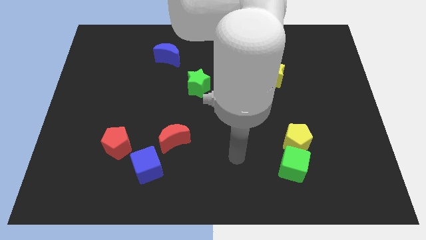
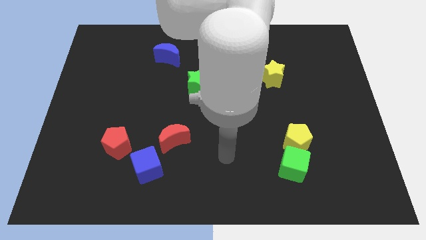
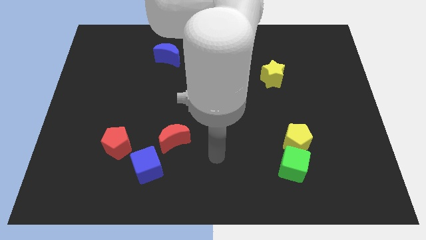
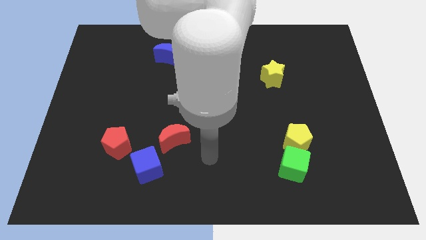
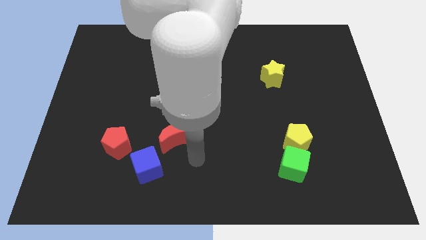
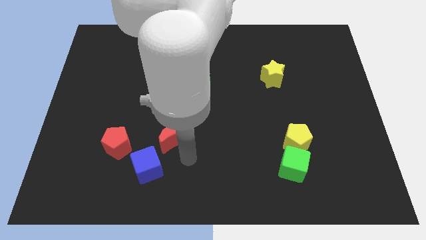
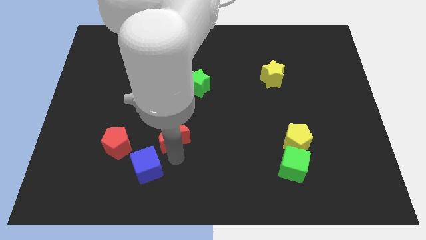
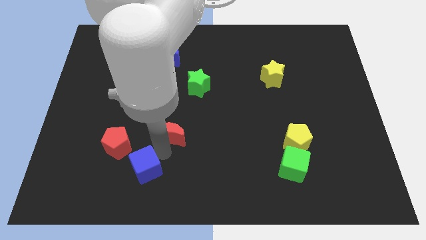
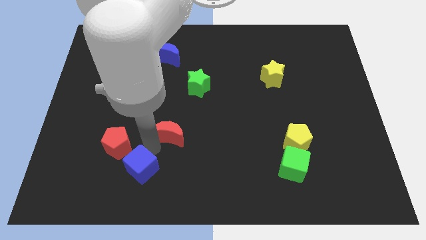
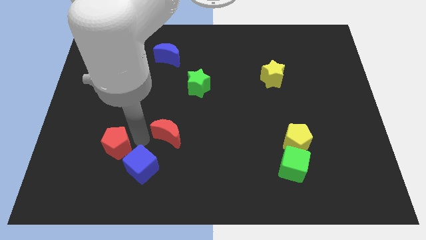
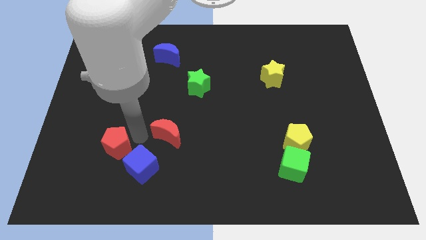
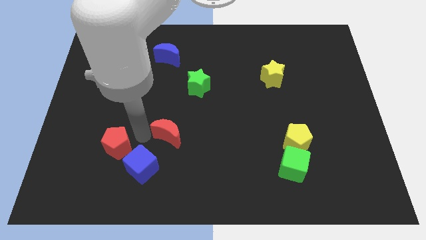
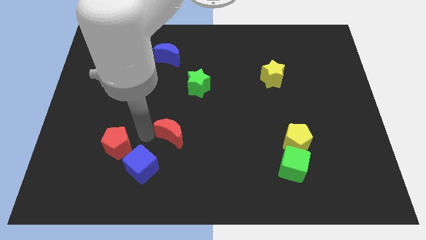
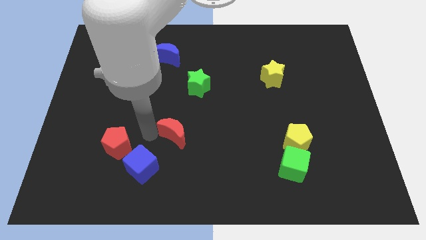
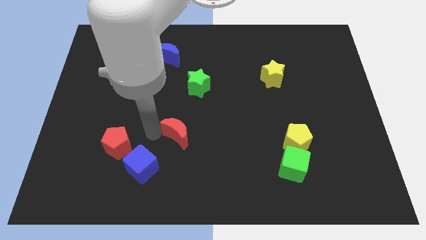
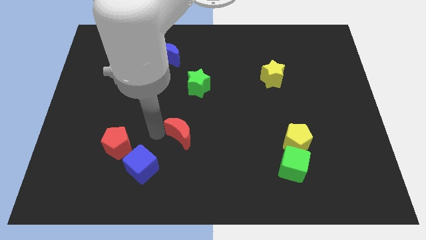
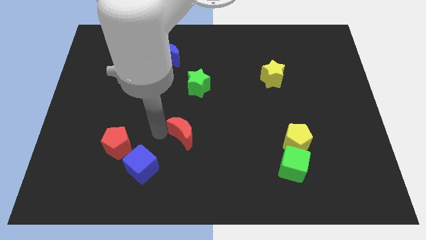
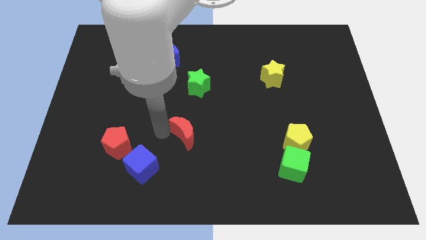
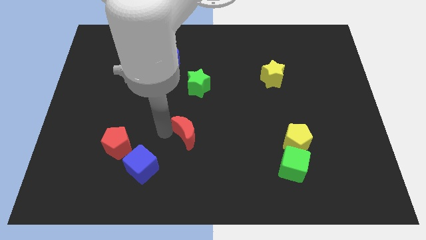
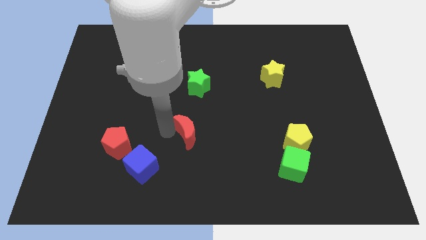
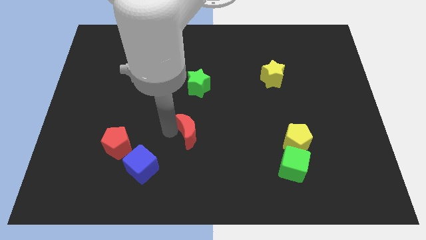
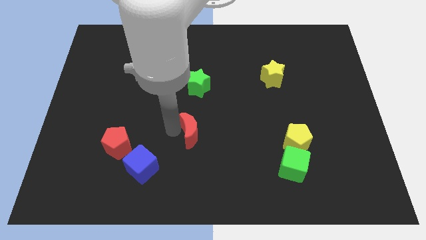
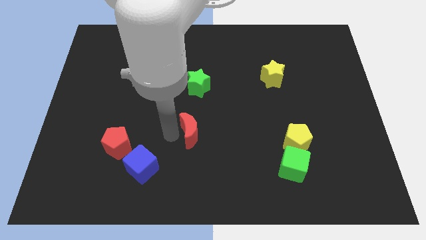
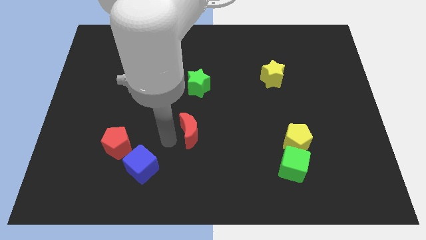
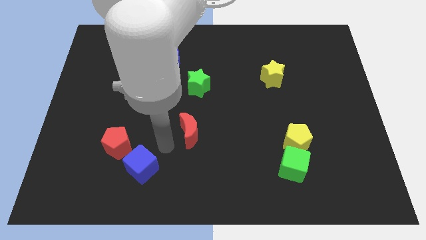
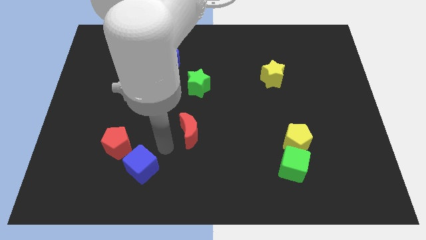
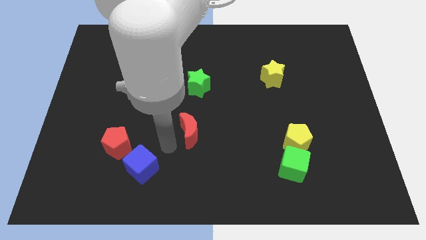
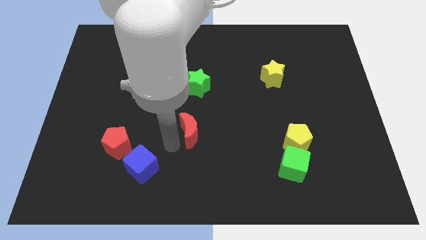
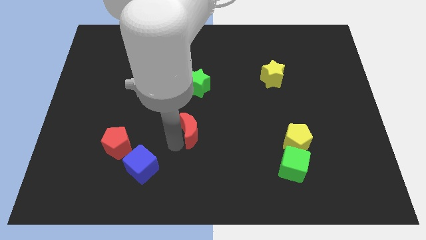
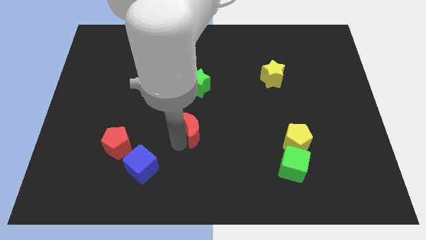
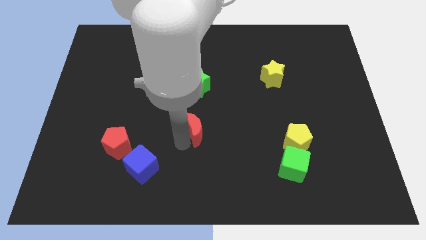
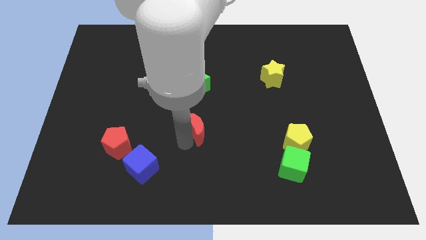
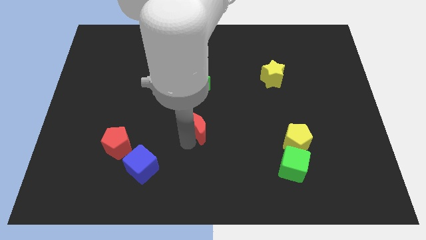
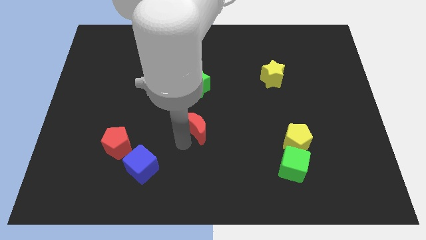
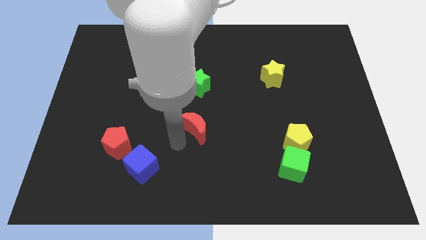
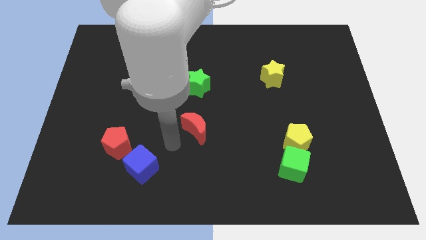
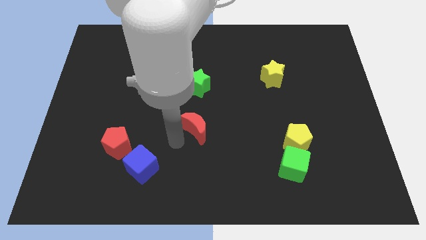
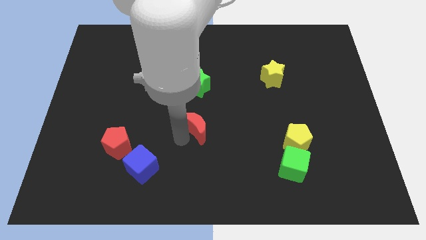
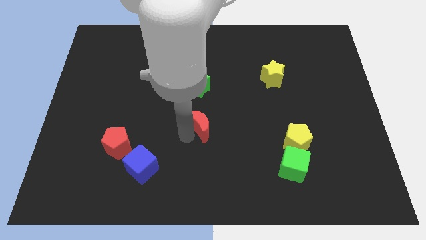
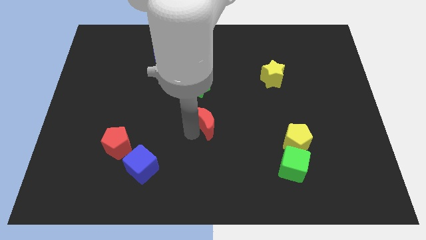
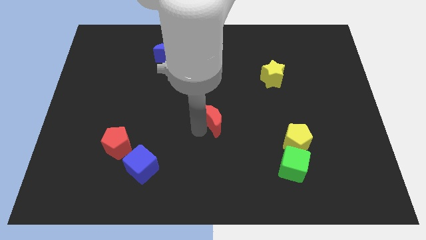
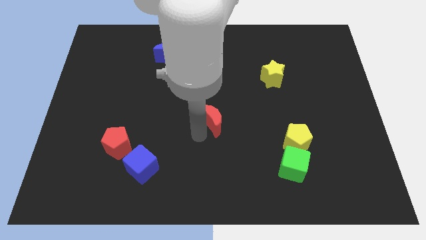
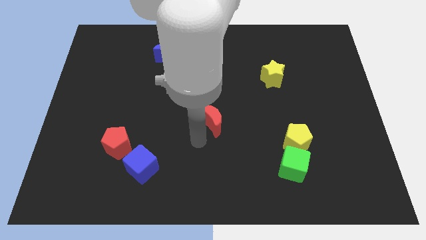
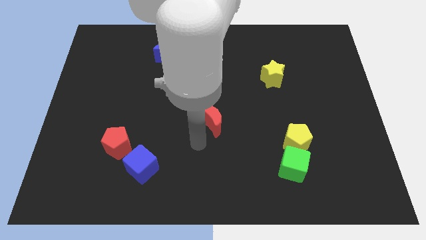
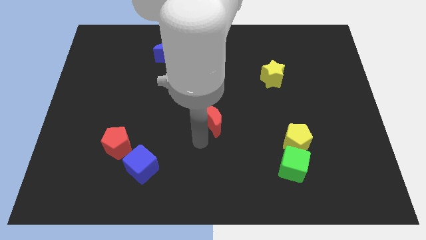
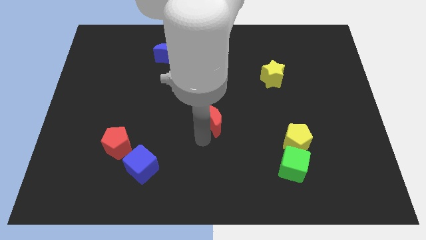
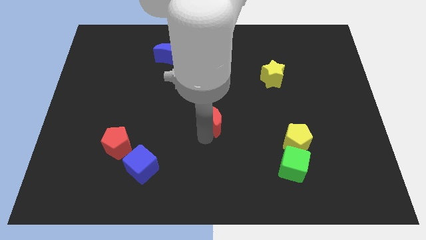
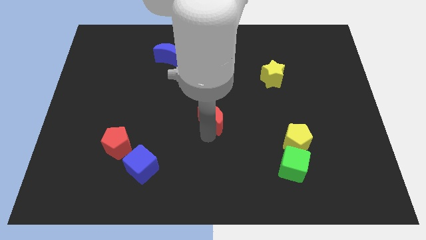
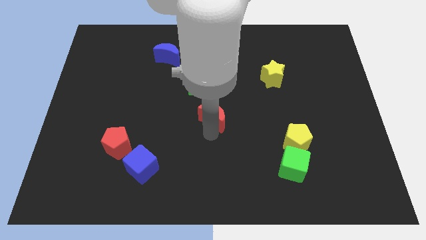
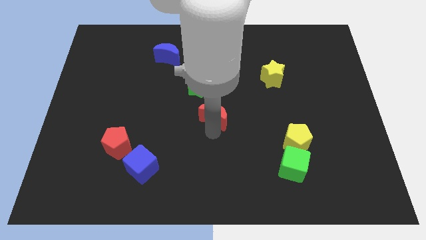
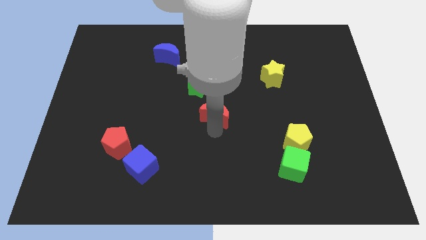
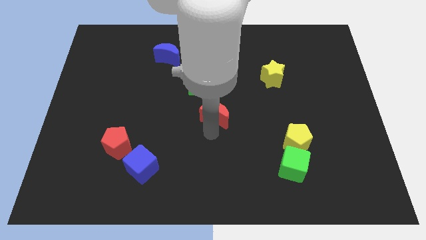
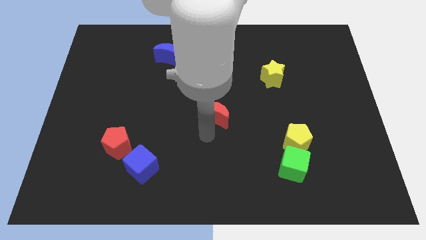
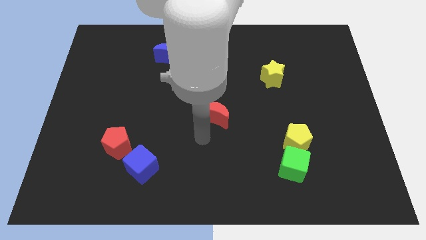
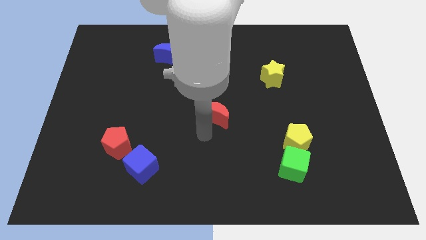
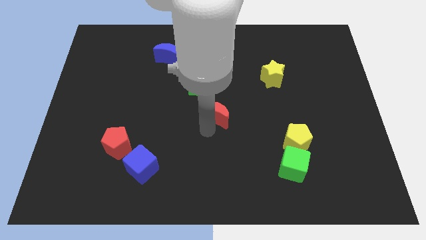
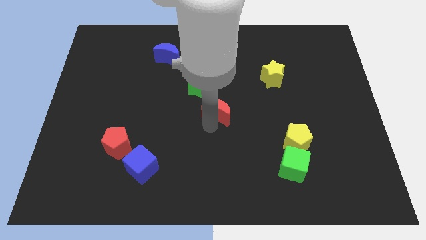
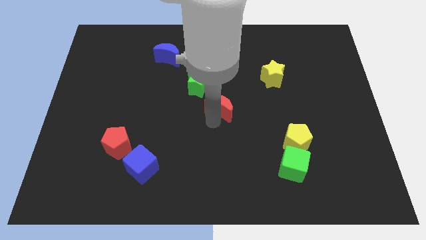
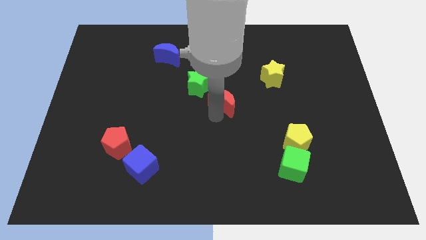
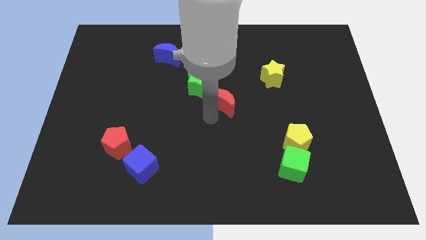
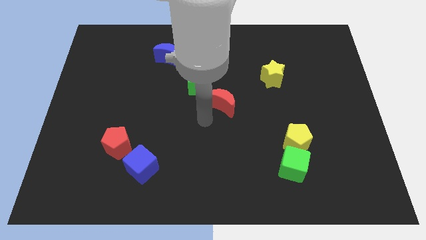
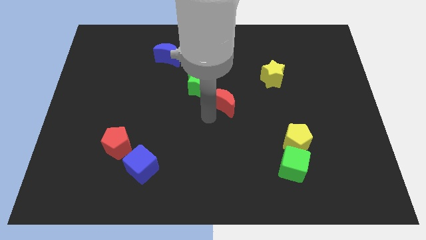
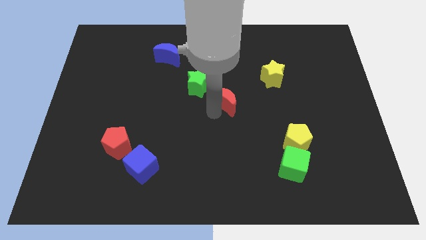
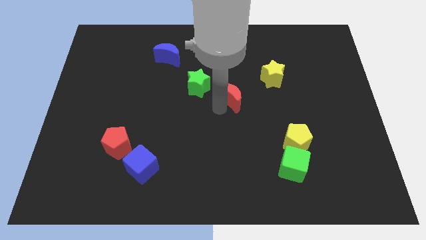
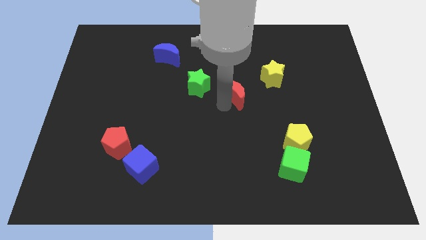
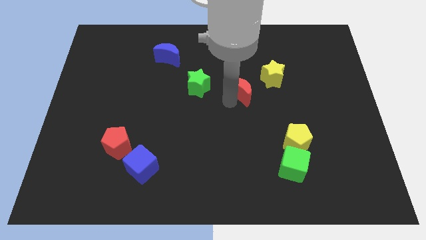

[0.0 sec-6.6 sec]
push the red moon upwards and to the right

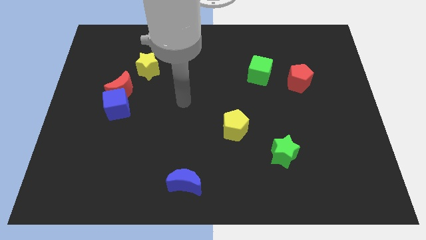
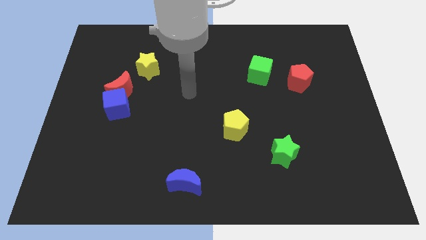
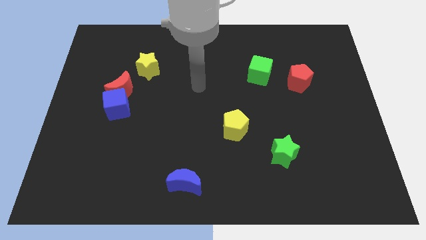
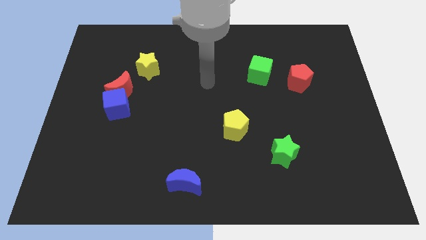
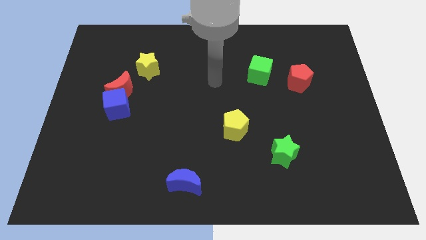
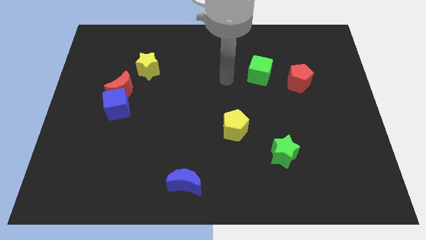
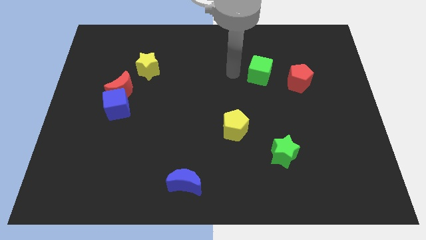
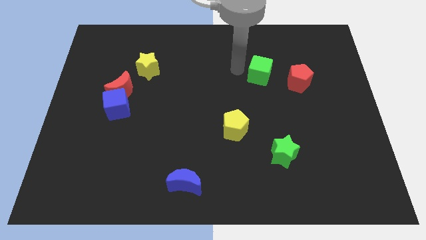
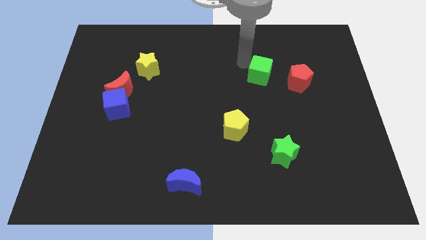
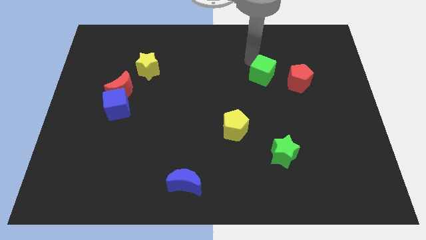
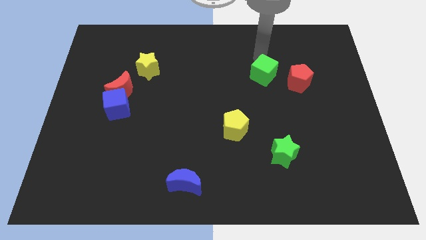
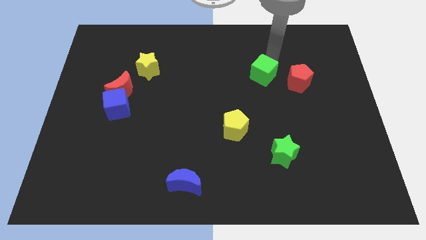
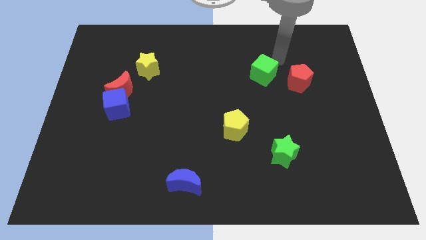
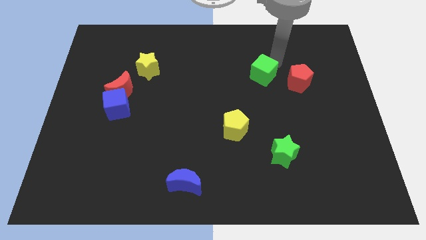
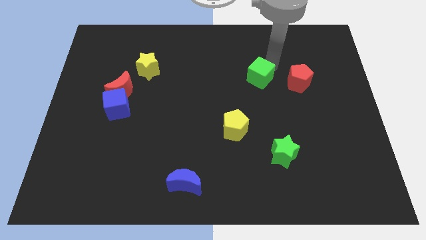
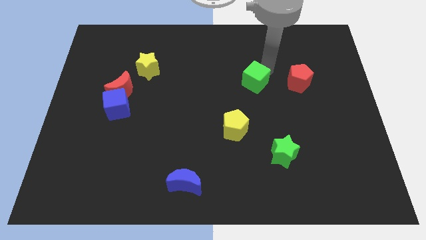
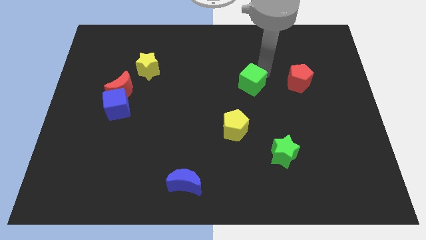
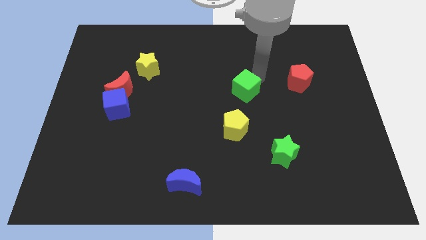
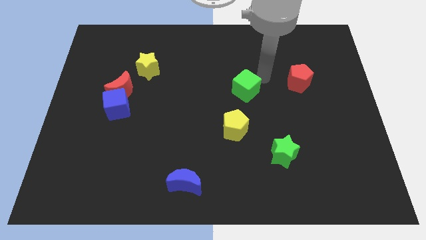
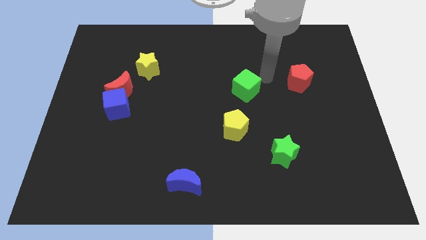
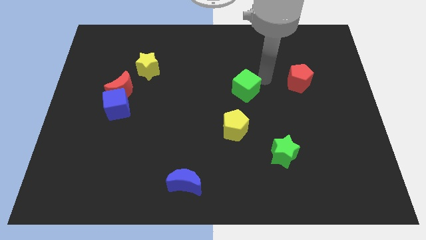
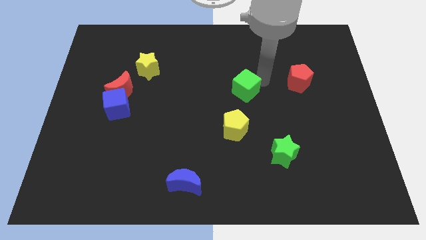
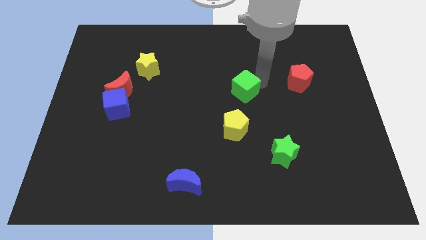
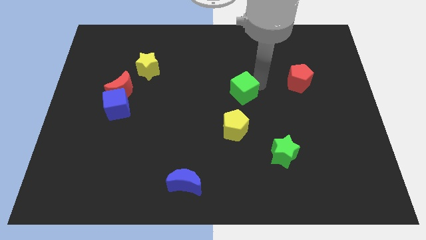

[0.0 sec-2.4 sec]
move the green cube diagonally downwards and to the left slightly
